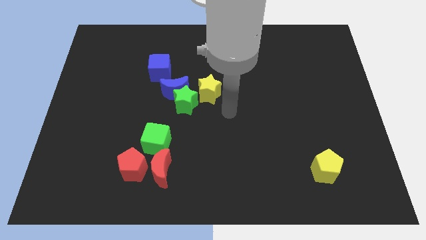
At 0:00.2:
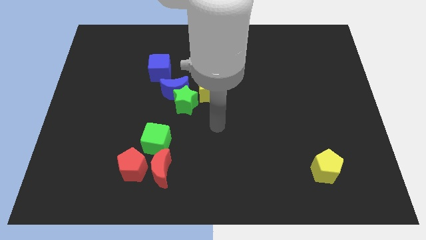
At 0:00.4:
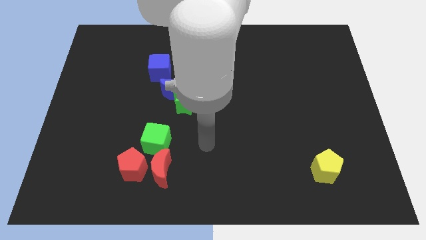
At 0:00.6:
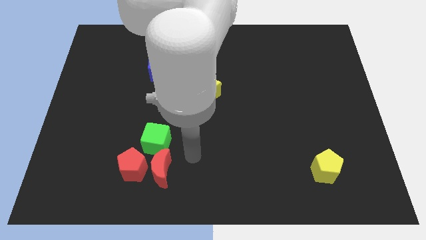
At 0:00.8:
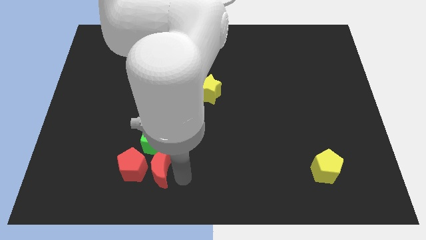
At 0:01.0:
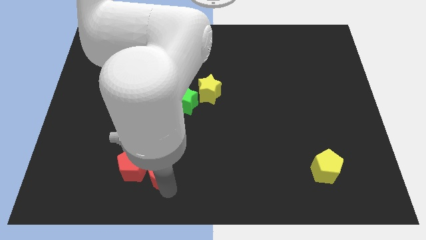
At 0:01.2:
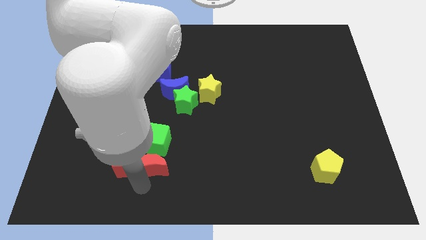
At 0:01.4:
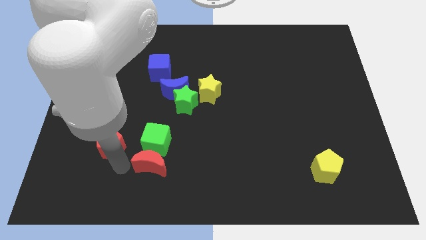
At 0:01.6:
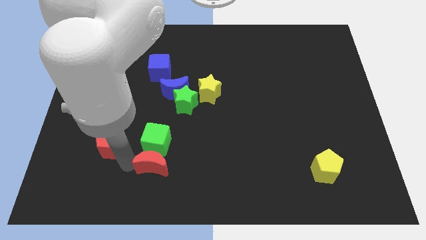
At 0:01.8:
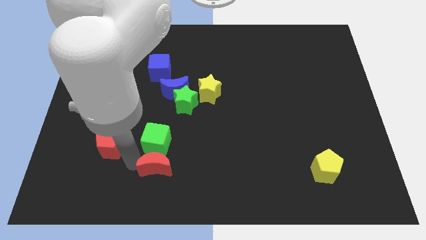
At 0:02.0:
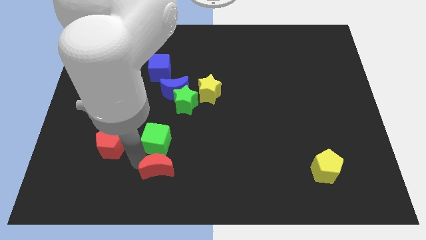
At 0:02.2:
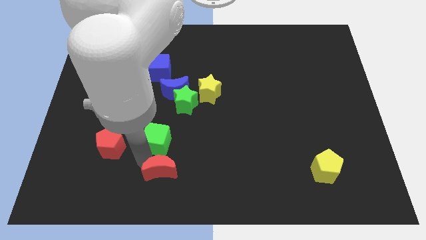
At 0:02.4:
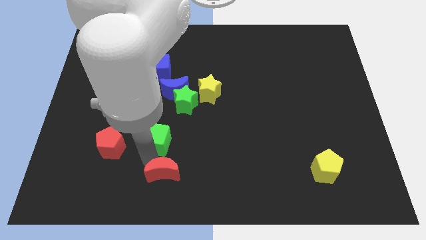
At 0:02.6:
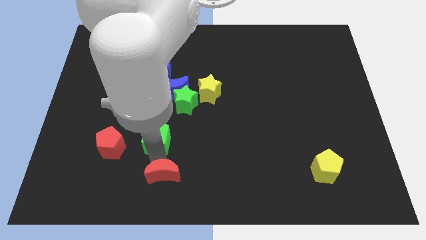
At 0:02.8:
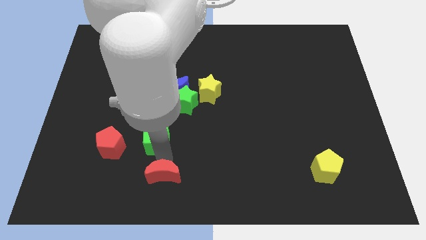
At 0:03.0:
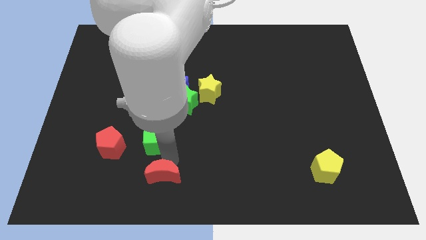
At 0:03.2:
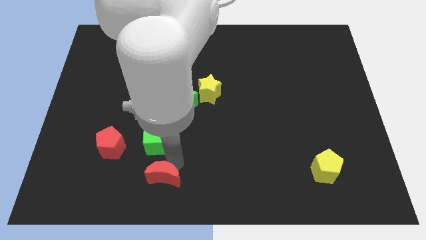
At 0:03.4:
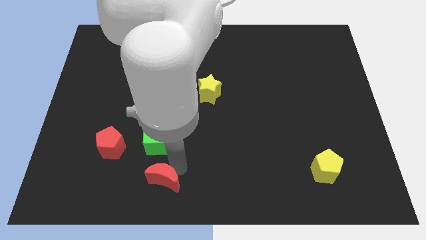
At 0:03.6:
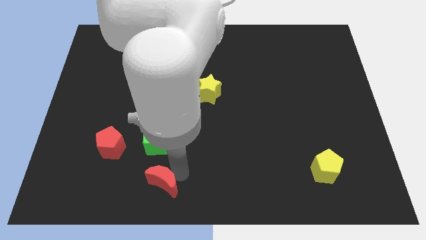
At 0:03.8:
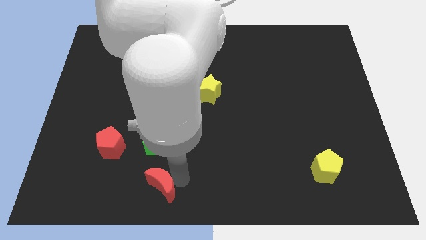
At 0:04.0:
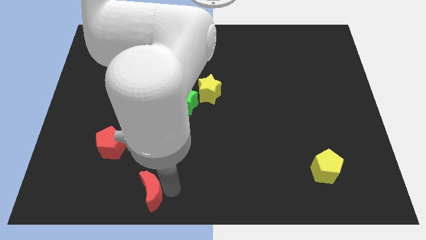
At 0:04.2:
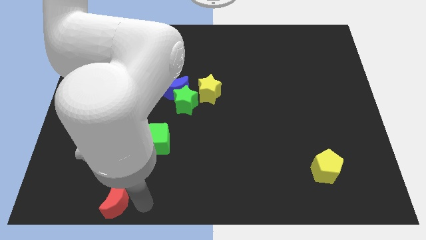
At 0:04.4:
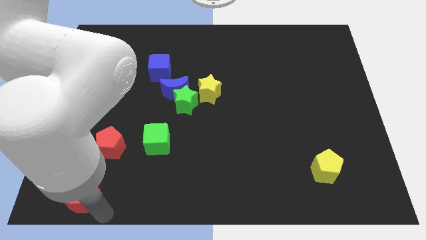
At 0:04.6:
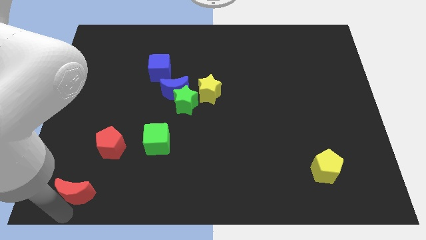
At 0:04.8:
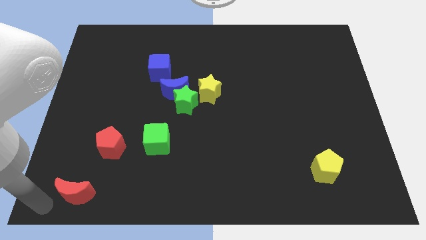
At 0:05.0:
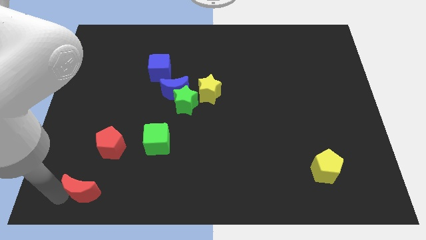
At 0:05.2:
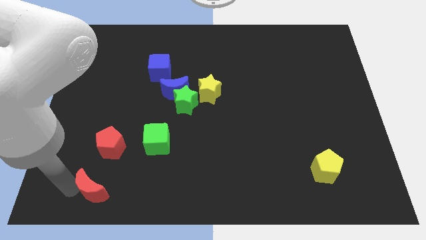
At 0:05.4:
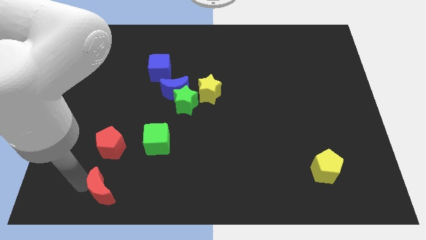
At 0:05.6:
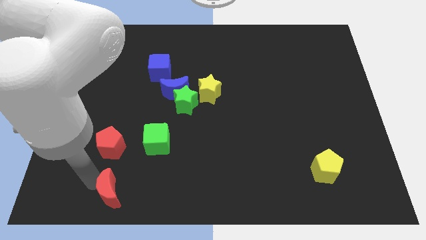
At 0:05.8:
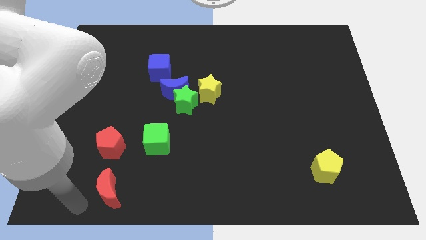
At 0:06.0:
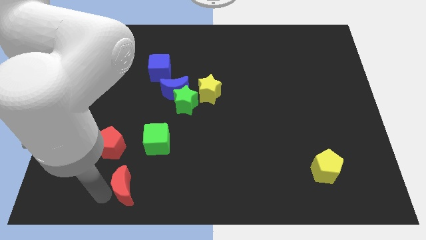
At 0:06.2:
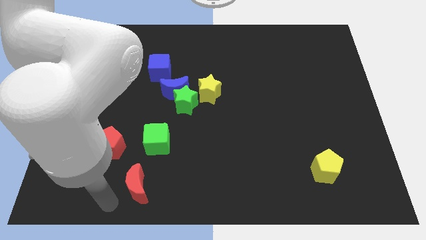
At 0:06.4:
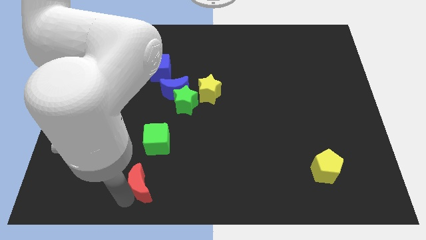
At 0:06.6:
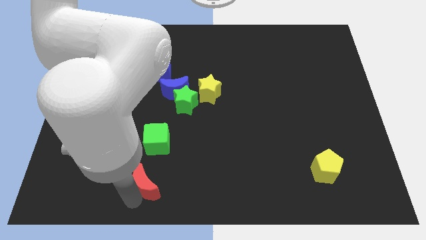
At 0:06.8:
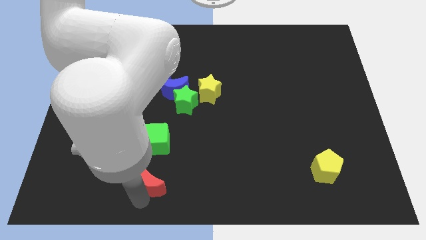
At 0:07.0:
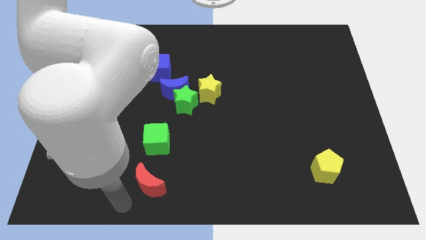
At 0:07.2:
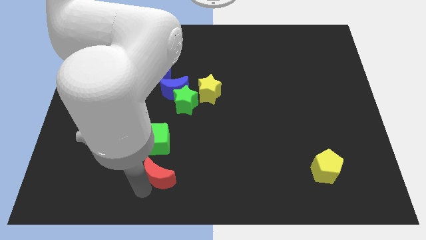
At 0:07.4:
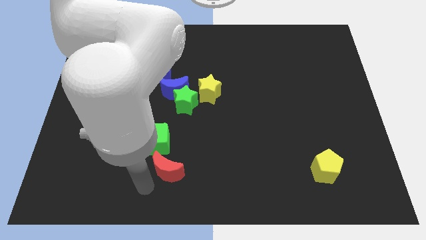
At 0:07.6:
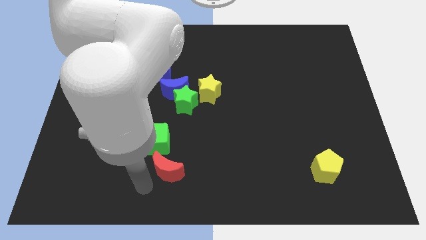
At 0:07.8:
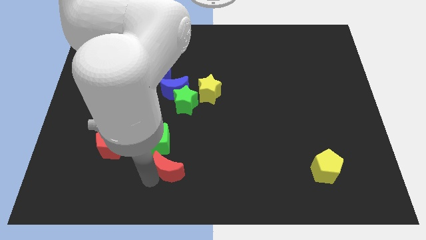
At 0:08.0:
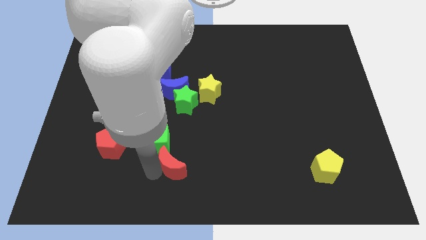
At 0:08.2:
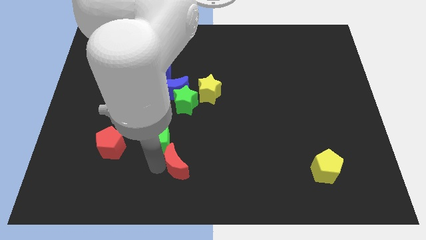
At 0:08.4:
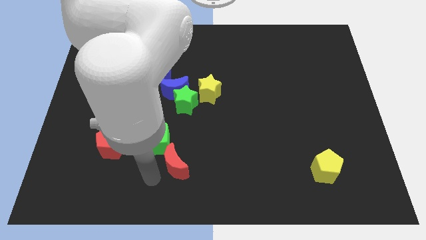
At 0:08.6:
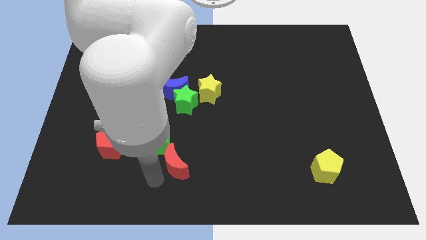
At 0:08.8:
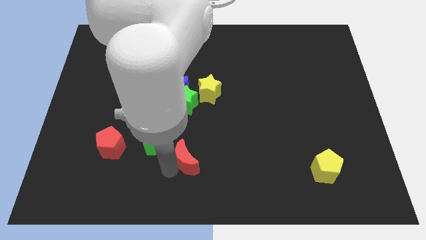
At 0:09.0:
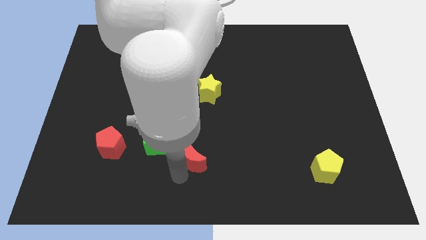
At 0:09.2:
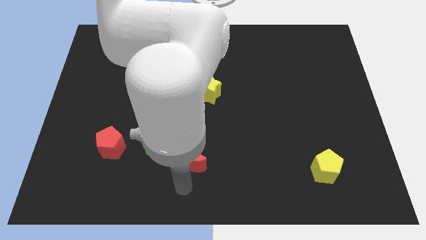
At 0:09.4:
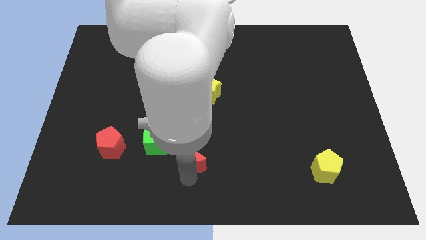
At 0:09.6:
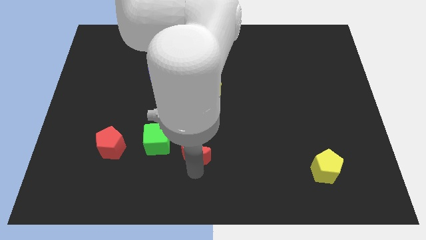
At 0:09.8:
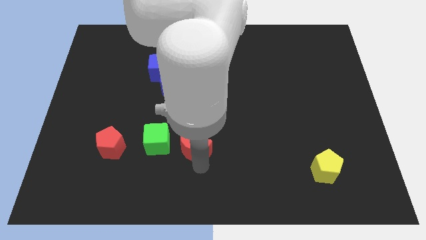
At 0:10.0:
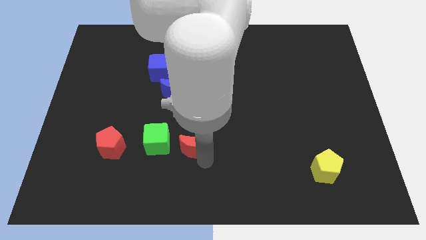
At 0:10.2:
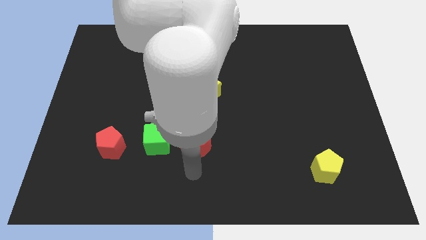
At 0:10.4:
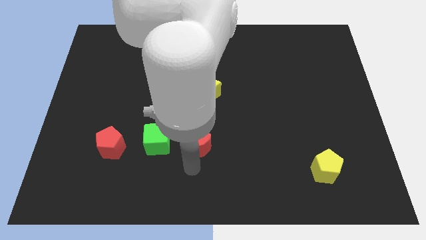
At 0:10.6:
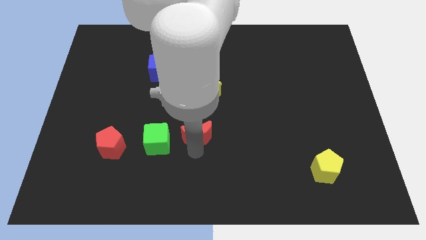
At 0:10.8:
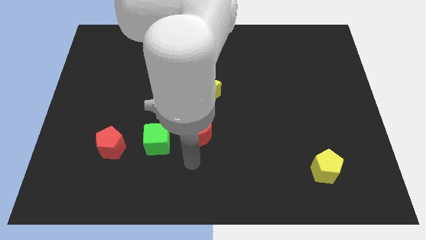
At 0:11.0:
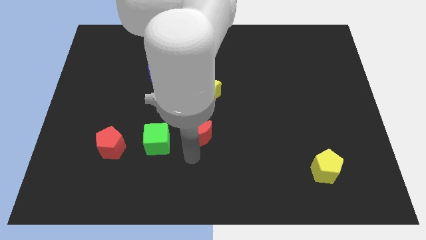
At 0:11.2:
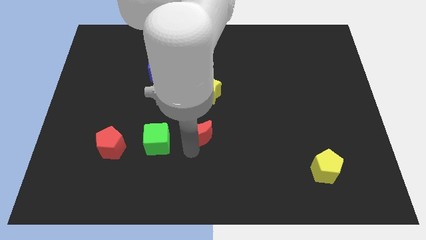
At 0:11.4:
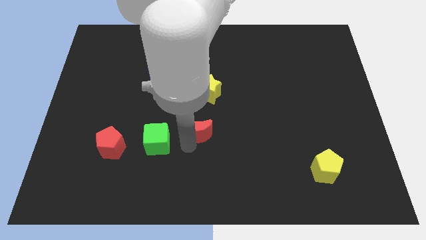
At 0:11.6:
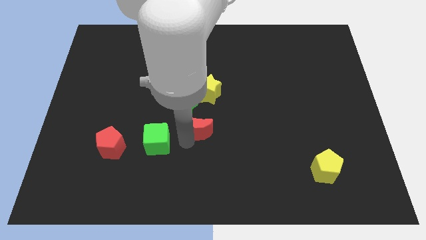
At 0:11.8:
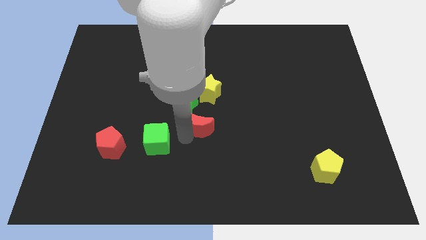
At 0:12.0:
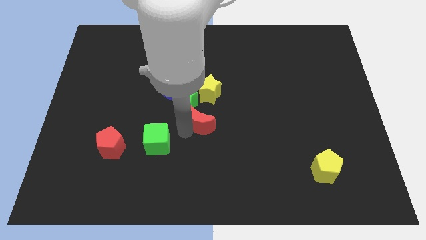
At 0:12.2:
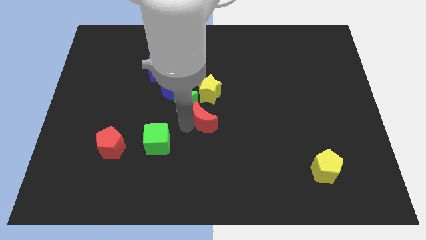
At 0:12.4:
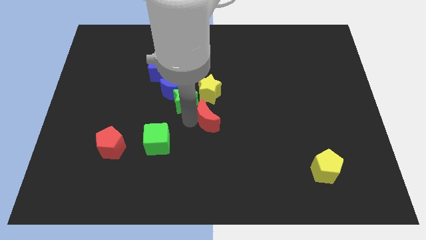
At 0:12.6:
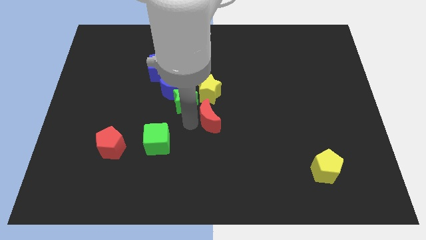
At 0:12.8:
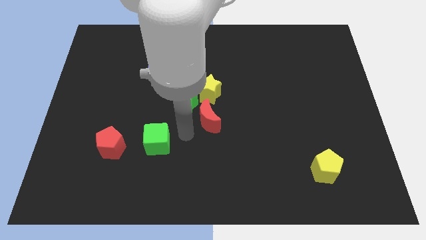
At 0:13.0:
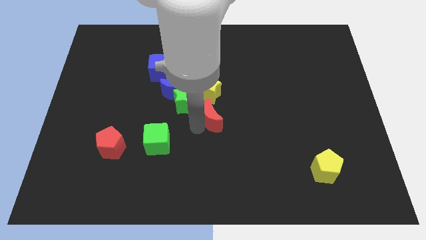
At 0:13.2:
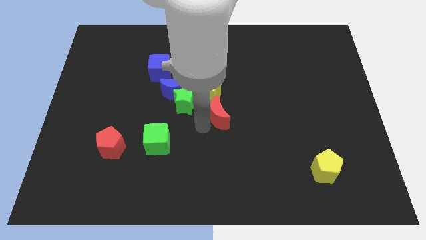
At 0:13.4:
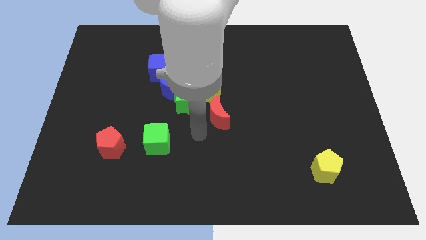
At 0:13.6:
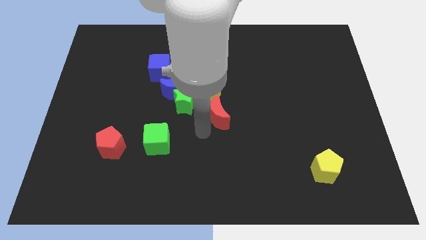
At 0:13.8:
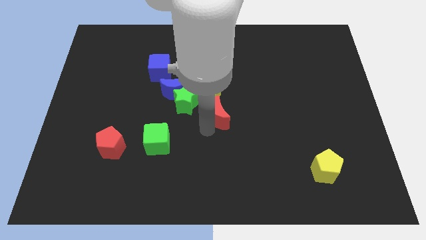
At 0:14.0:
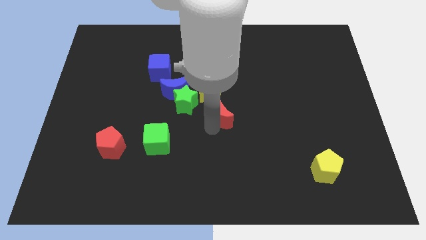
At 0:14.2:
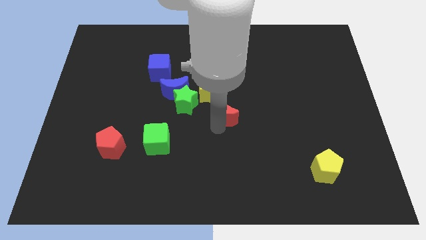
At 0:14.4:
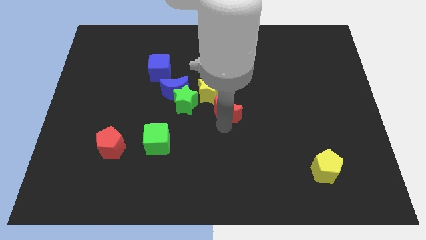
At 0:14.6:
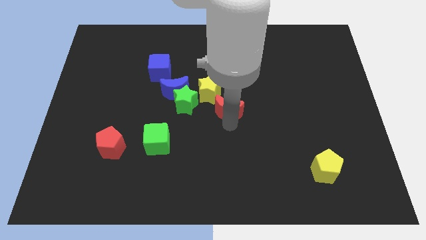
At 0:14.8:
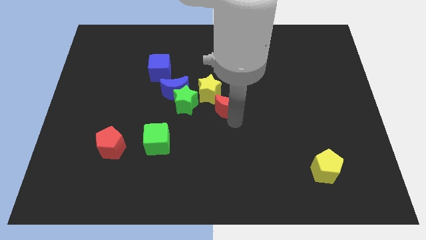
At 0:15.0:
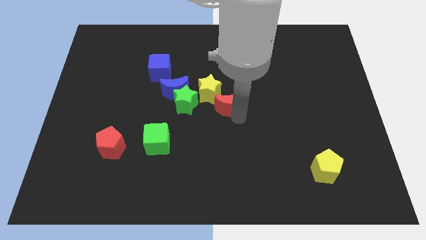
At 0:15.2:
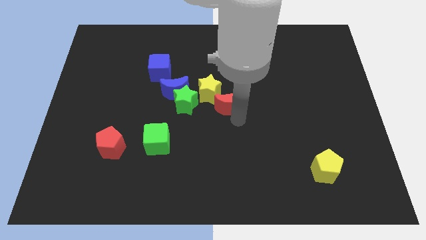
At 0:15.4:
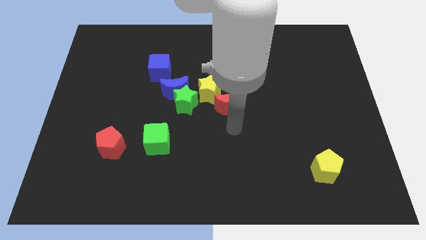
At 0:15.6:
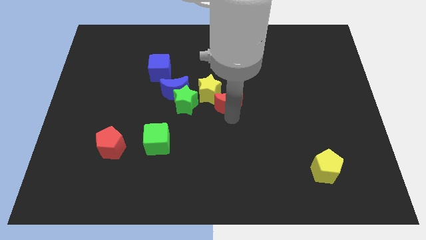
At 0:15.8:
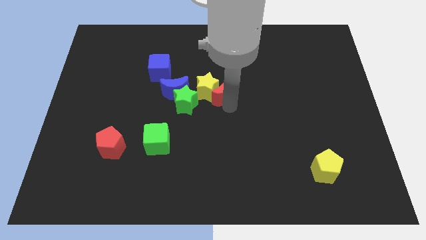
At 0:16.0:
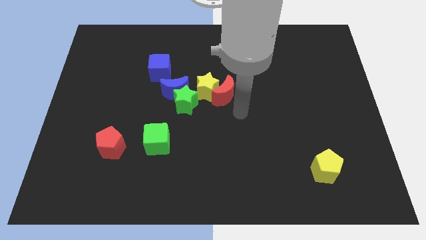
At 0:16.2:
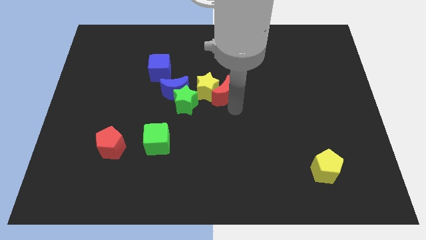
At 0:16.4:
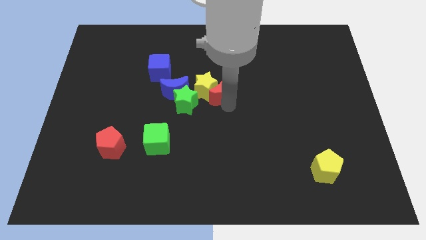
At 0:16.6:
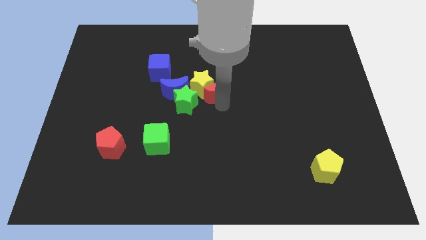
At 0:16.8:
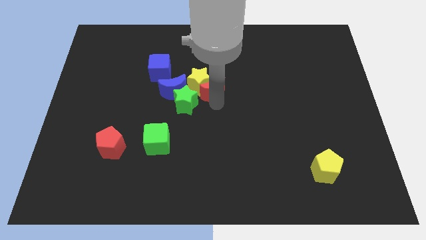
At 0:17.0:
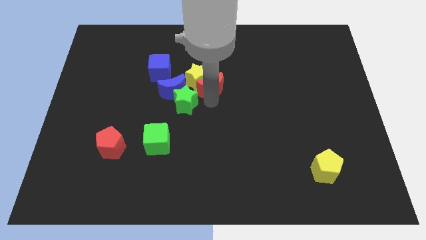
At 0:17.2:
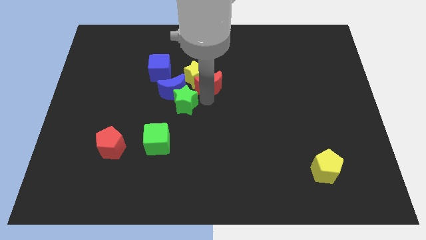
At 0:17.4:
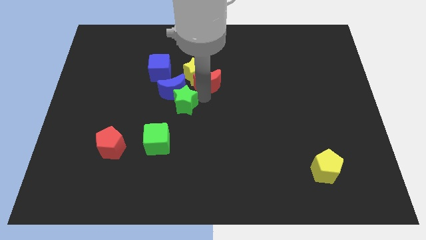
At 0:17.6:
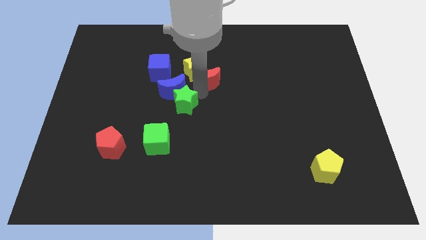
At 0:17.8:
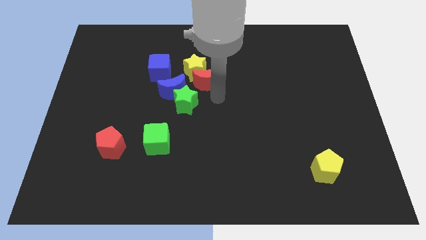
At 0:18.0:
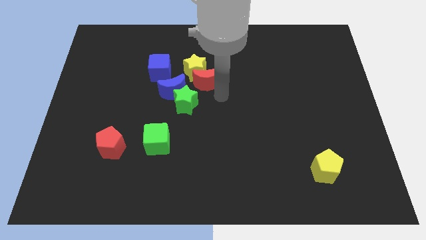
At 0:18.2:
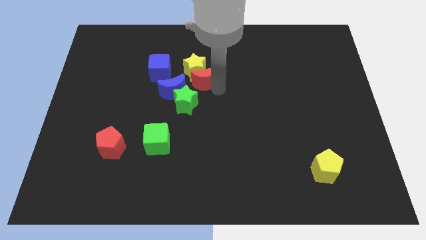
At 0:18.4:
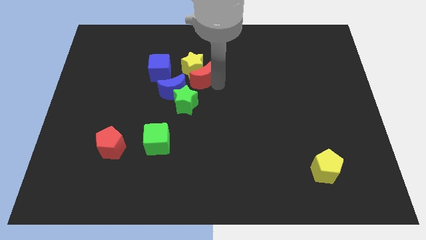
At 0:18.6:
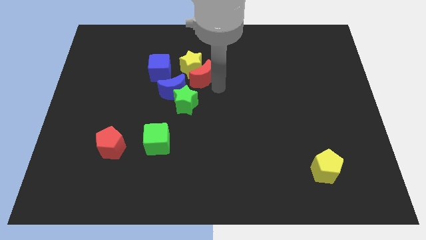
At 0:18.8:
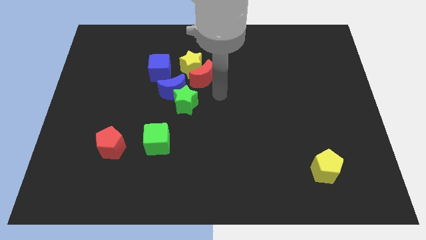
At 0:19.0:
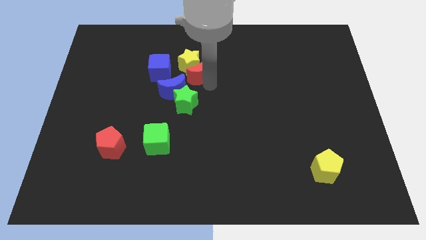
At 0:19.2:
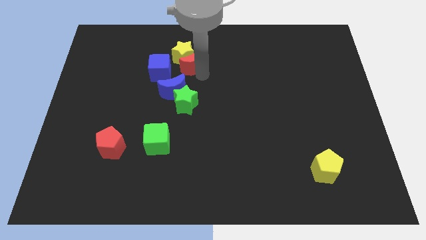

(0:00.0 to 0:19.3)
push the red moon to the top right side of the blue cube
